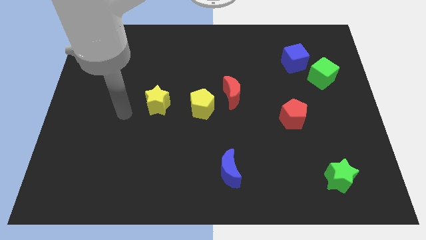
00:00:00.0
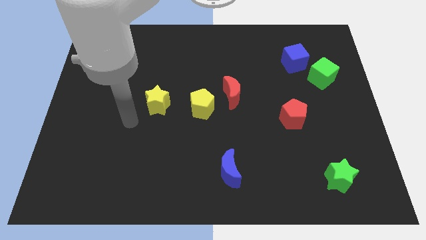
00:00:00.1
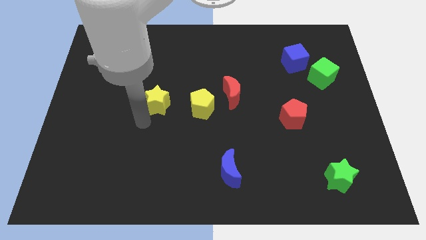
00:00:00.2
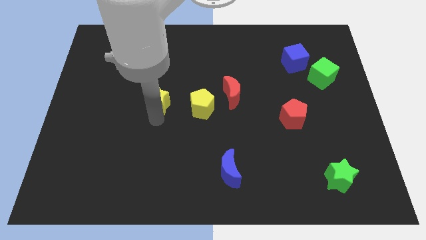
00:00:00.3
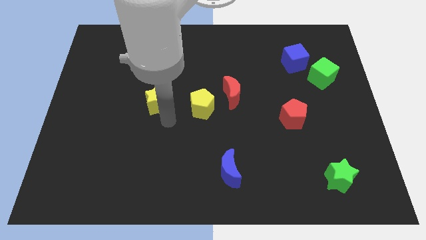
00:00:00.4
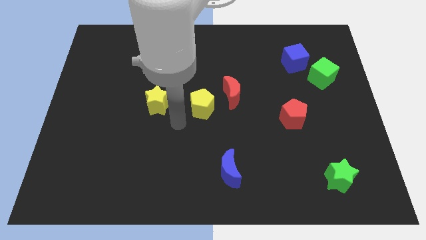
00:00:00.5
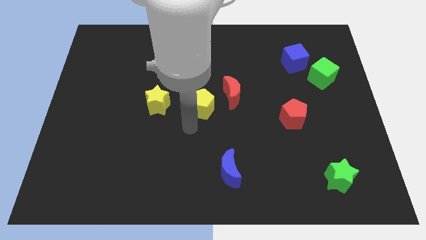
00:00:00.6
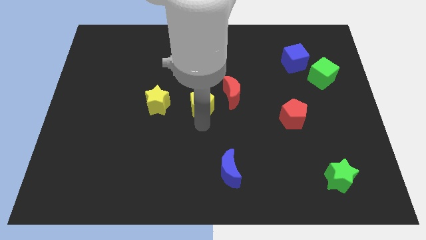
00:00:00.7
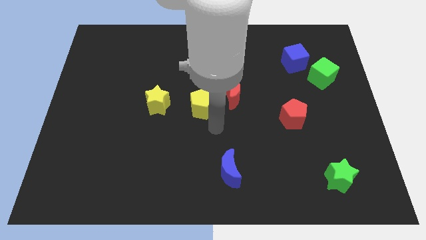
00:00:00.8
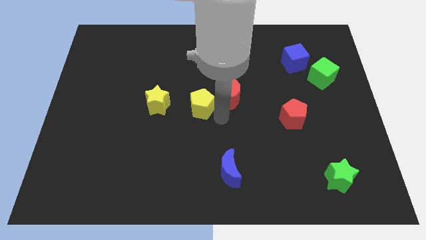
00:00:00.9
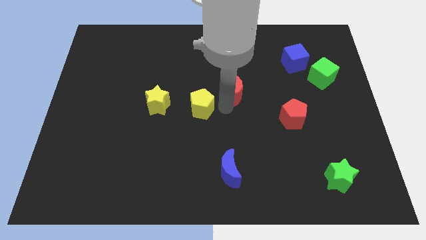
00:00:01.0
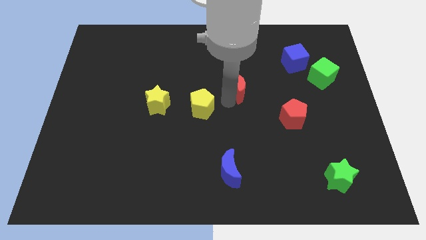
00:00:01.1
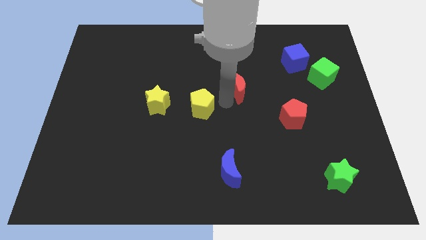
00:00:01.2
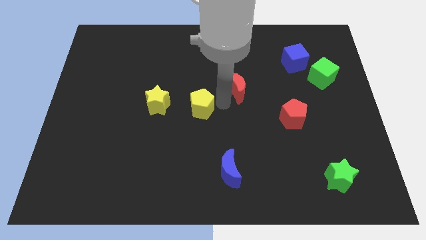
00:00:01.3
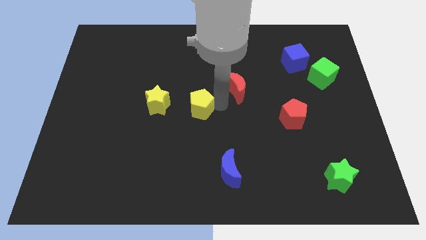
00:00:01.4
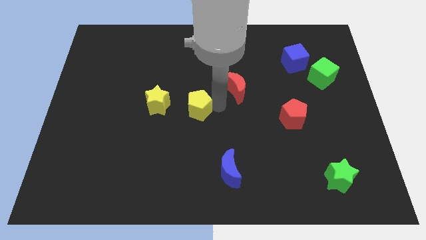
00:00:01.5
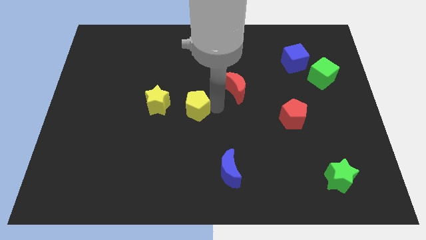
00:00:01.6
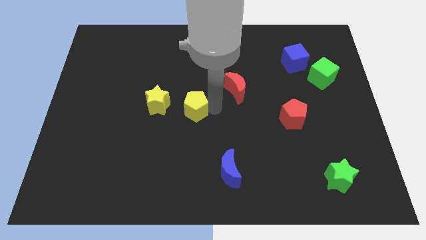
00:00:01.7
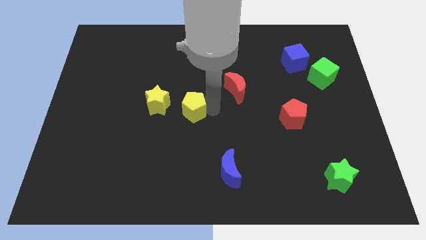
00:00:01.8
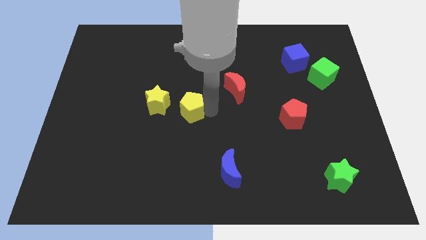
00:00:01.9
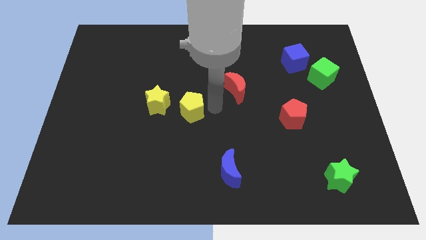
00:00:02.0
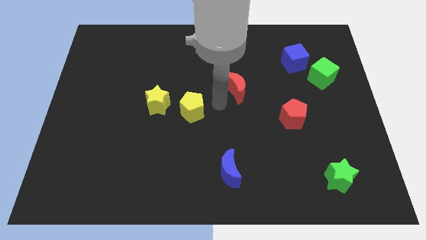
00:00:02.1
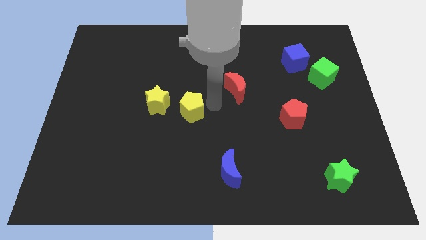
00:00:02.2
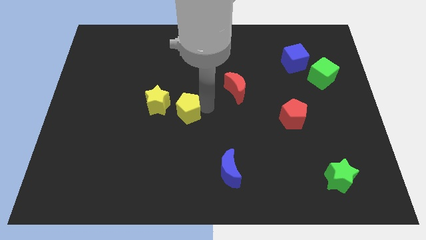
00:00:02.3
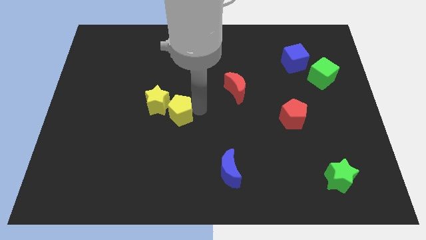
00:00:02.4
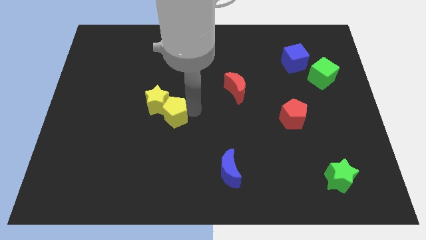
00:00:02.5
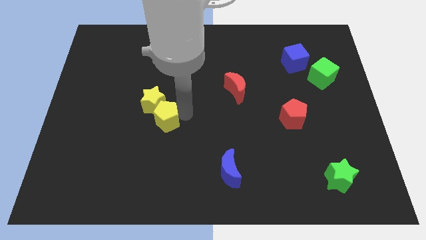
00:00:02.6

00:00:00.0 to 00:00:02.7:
slide the yellow pentagon slightly to the left

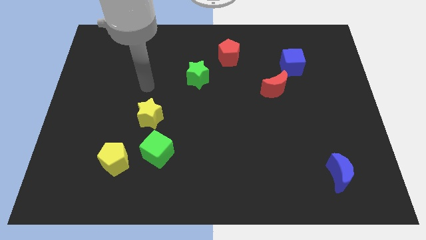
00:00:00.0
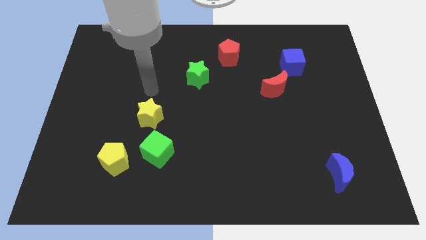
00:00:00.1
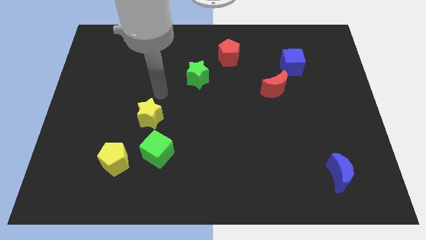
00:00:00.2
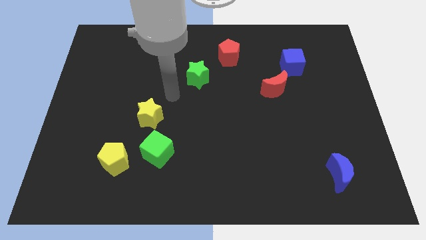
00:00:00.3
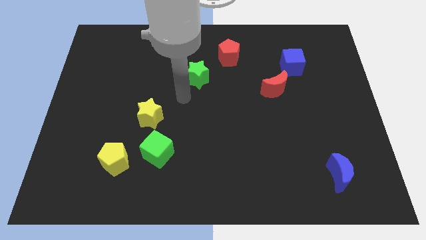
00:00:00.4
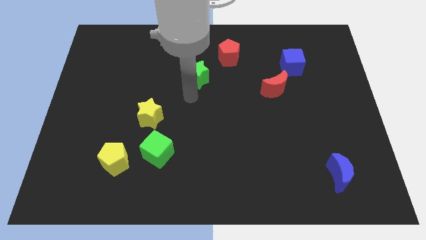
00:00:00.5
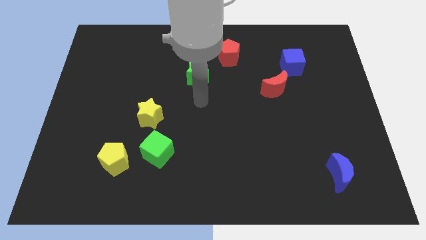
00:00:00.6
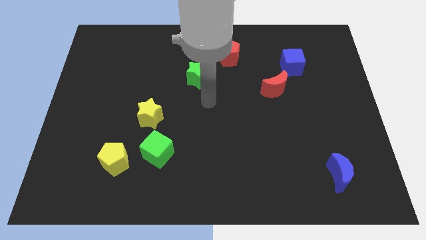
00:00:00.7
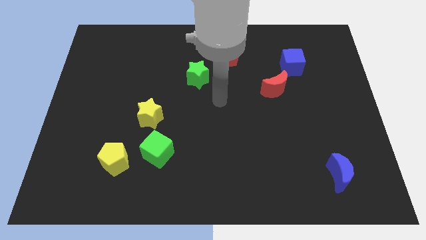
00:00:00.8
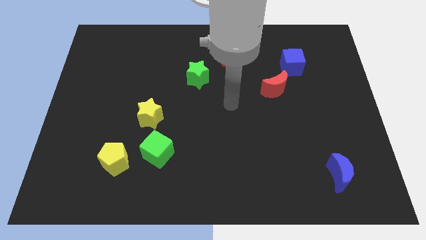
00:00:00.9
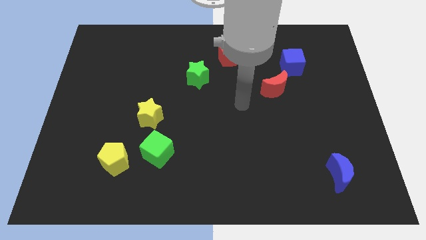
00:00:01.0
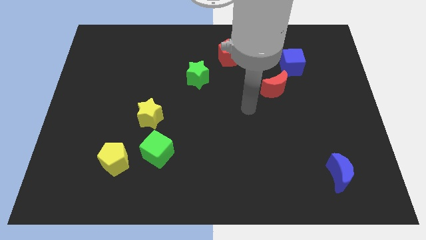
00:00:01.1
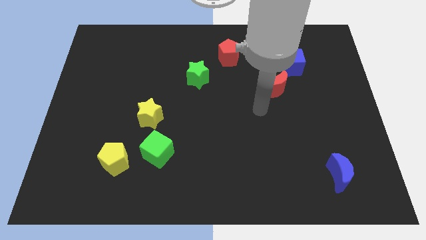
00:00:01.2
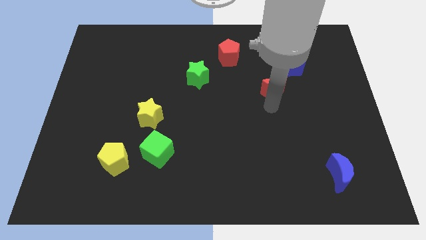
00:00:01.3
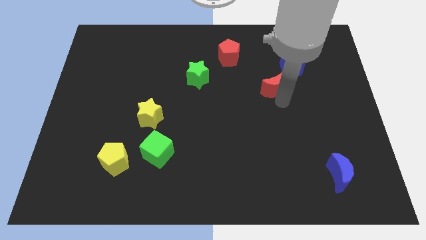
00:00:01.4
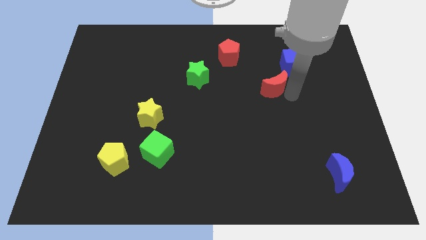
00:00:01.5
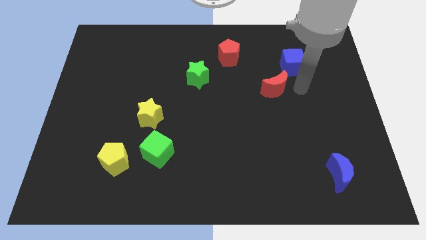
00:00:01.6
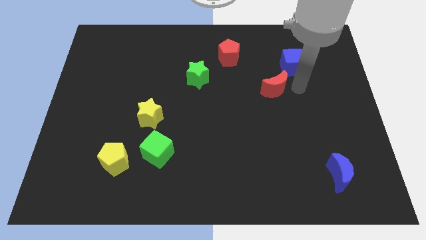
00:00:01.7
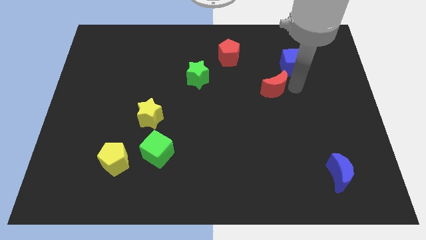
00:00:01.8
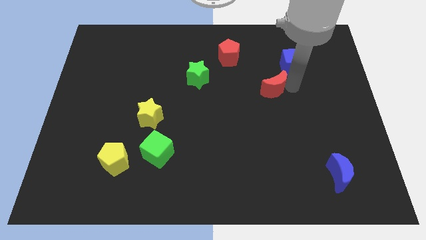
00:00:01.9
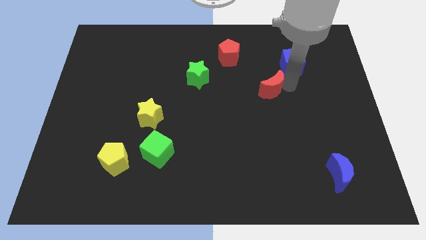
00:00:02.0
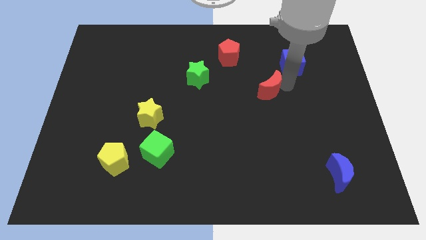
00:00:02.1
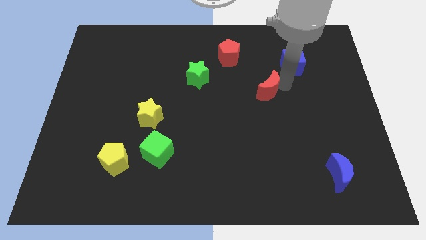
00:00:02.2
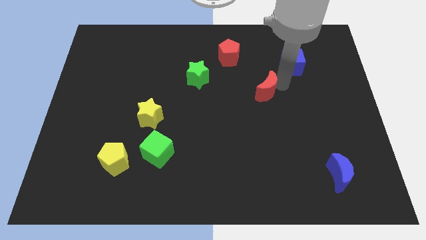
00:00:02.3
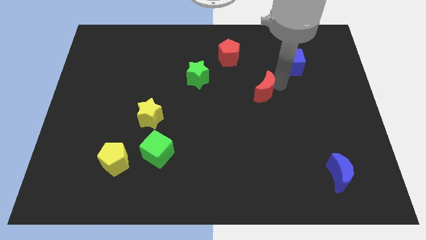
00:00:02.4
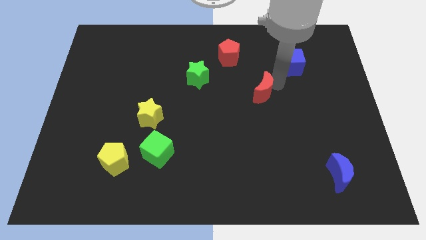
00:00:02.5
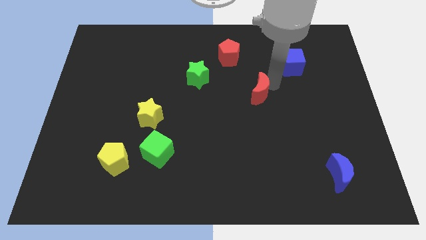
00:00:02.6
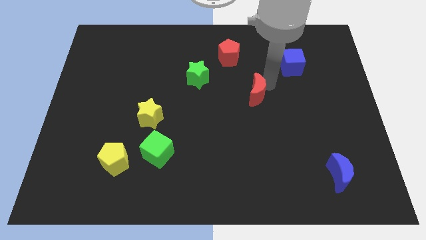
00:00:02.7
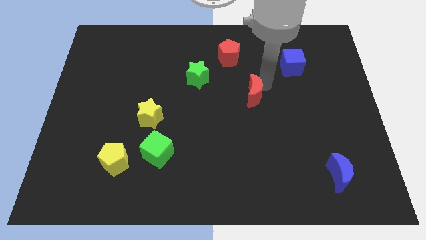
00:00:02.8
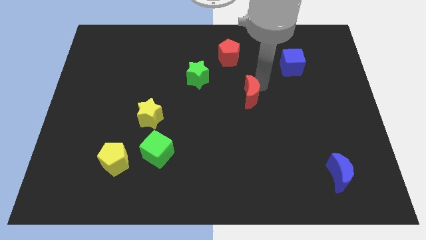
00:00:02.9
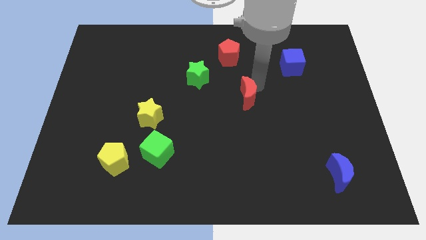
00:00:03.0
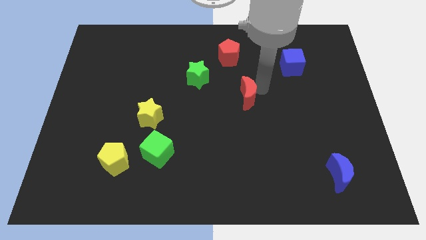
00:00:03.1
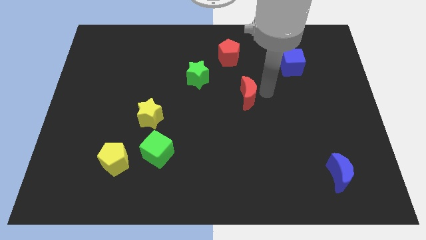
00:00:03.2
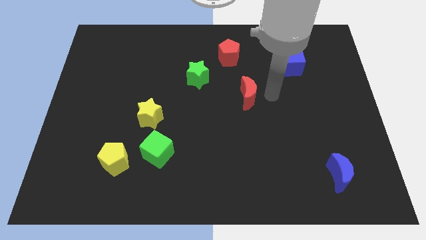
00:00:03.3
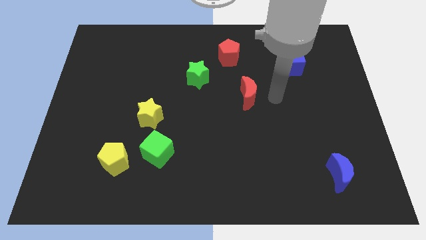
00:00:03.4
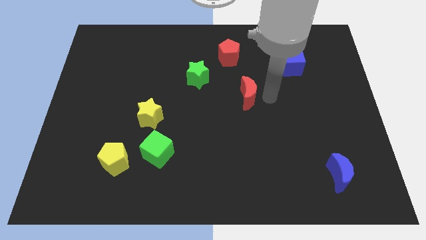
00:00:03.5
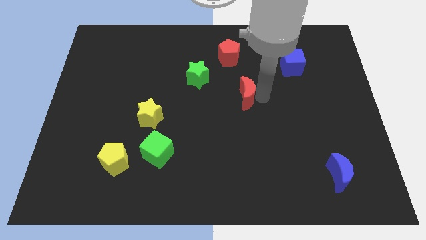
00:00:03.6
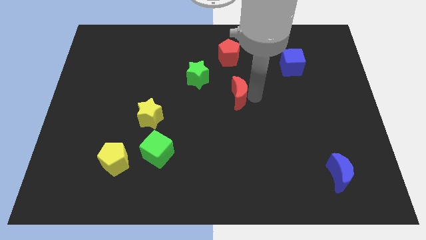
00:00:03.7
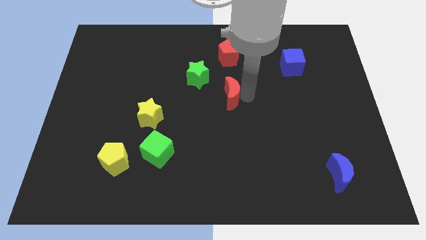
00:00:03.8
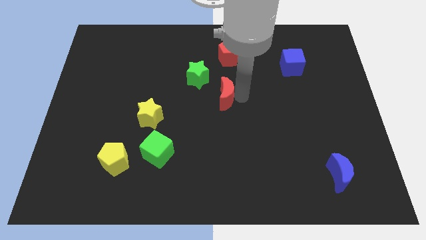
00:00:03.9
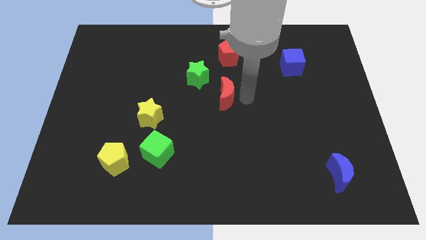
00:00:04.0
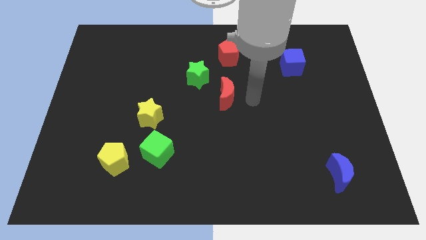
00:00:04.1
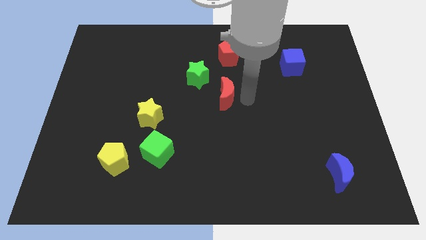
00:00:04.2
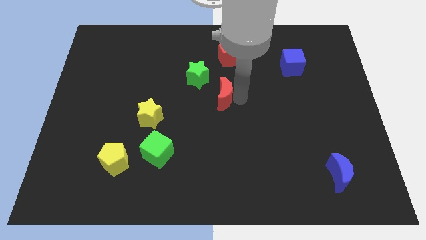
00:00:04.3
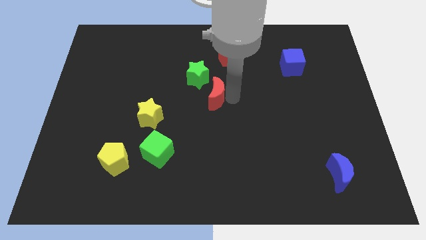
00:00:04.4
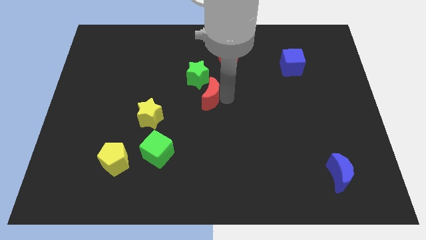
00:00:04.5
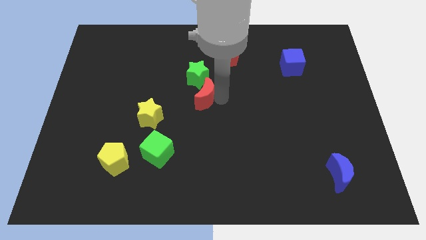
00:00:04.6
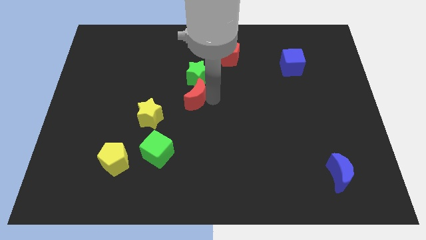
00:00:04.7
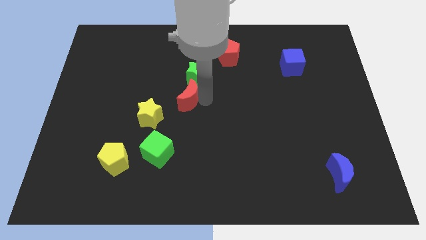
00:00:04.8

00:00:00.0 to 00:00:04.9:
move the red moon to the left

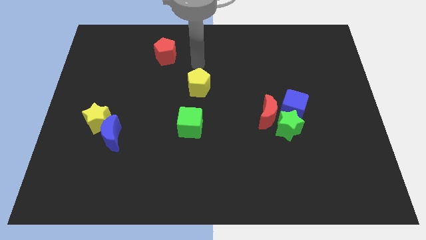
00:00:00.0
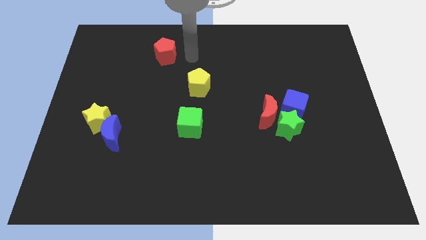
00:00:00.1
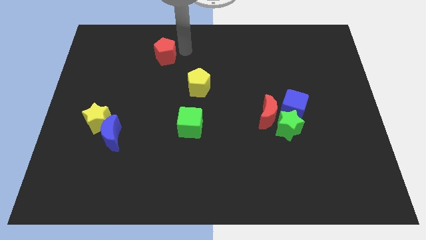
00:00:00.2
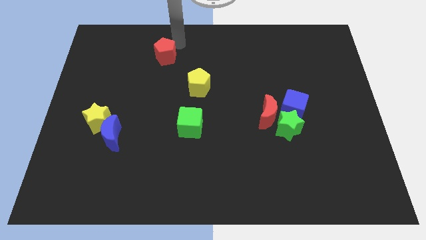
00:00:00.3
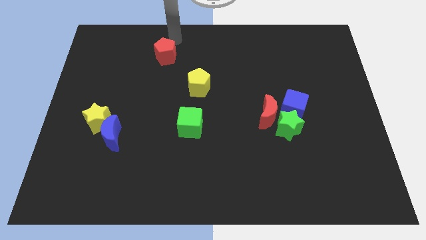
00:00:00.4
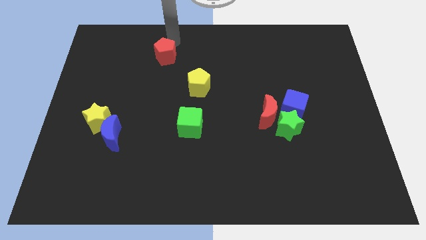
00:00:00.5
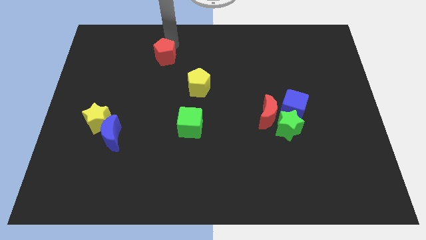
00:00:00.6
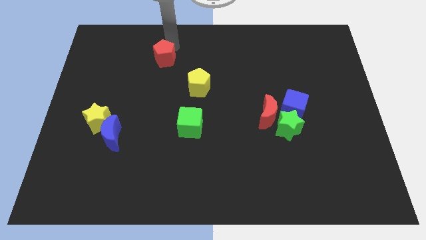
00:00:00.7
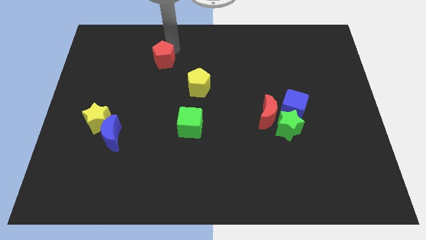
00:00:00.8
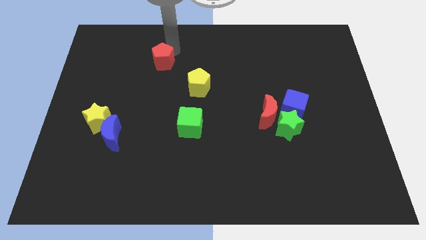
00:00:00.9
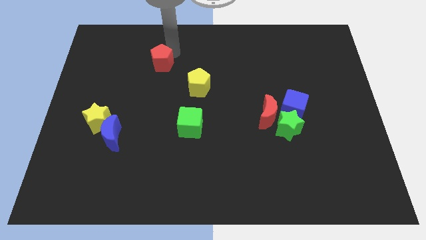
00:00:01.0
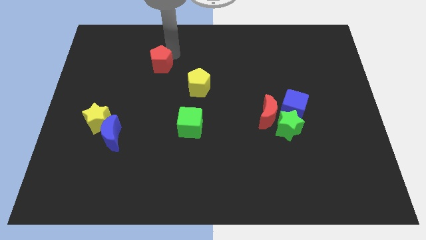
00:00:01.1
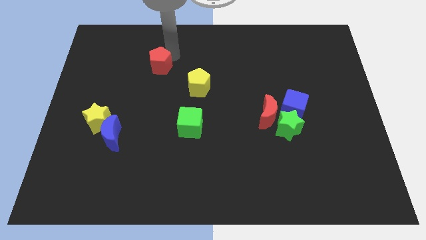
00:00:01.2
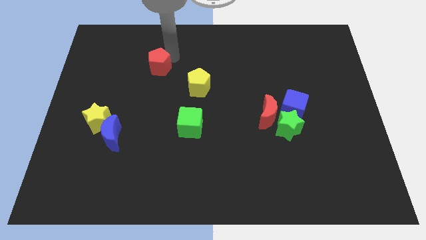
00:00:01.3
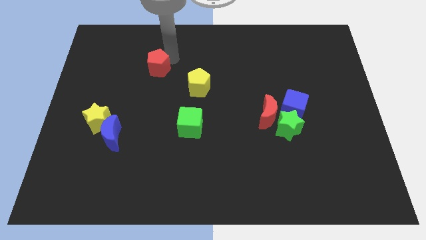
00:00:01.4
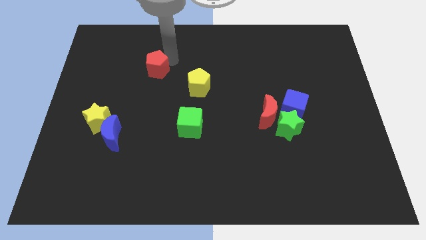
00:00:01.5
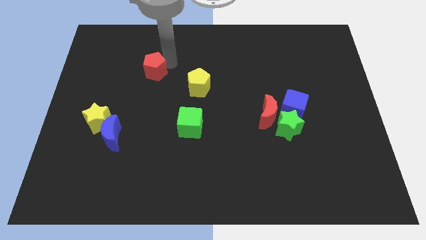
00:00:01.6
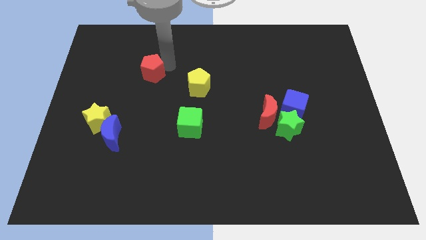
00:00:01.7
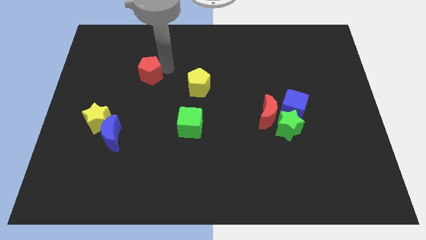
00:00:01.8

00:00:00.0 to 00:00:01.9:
move the red pentagon down and then to the left somewhat
